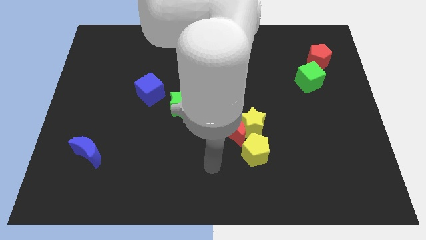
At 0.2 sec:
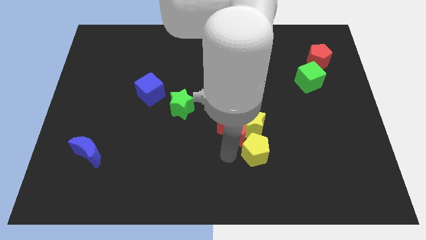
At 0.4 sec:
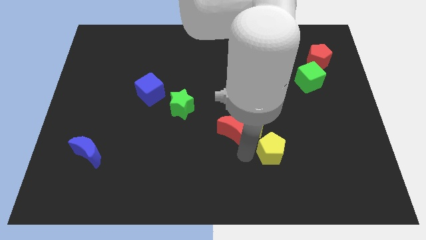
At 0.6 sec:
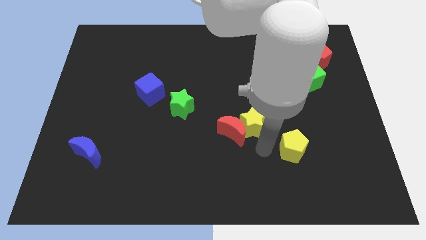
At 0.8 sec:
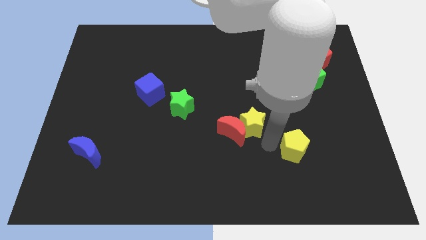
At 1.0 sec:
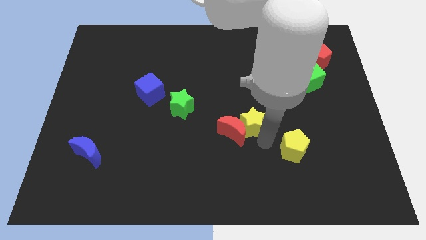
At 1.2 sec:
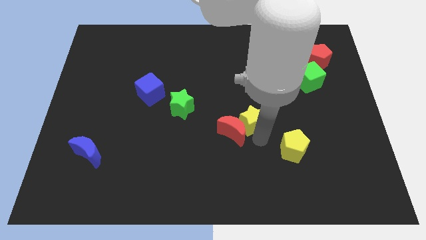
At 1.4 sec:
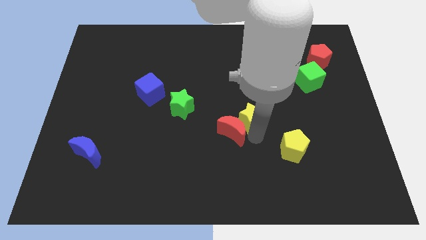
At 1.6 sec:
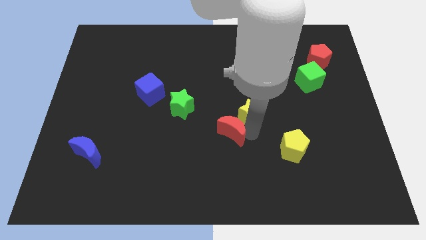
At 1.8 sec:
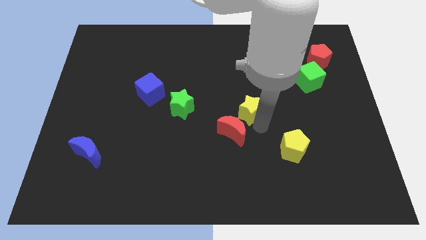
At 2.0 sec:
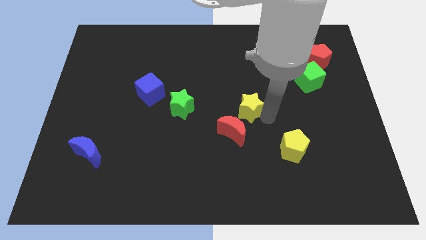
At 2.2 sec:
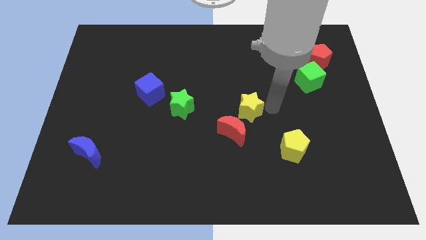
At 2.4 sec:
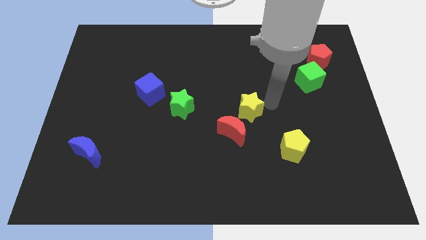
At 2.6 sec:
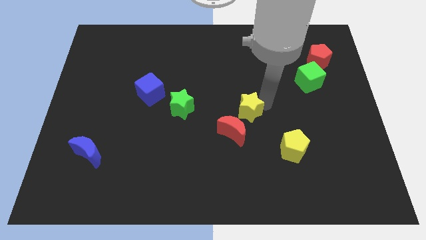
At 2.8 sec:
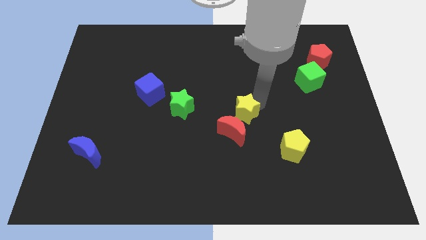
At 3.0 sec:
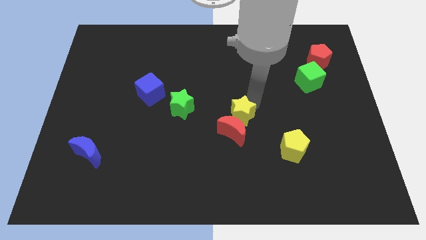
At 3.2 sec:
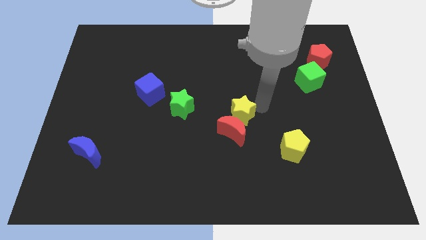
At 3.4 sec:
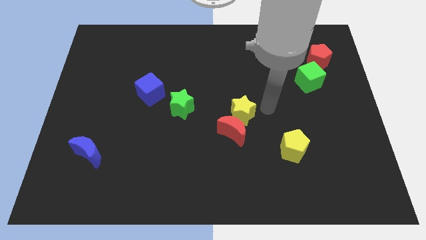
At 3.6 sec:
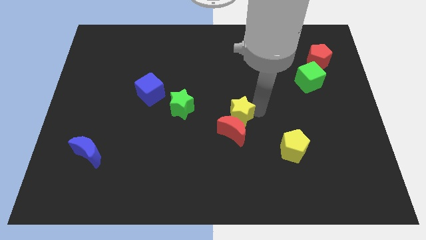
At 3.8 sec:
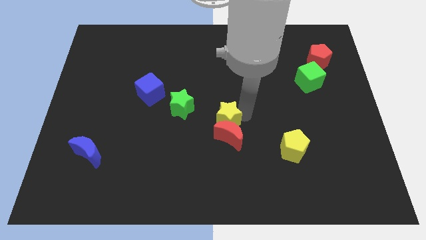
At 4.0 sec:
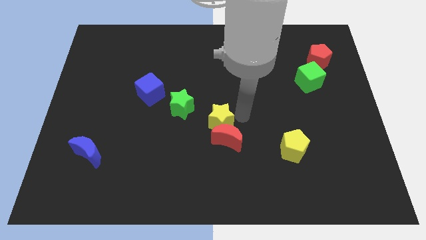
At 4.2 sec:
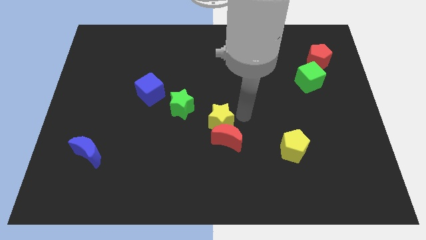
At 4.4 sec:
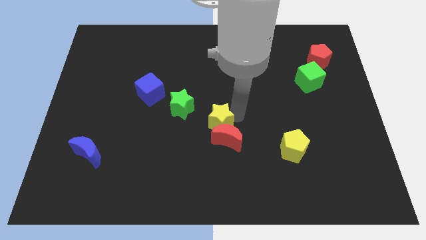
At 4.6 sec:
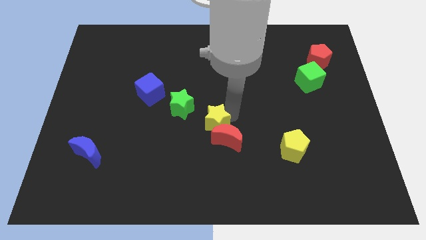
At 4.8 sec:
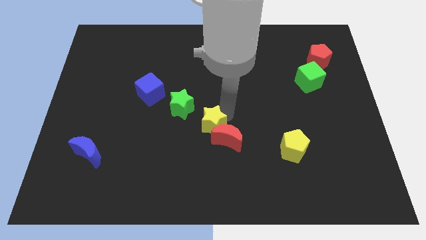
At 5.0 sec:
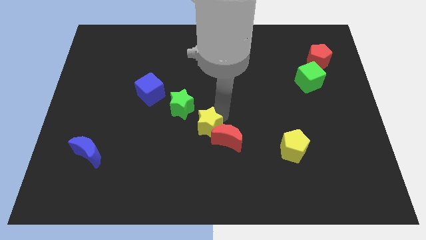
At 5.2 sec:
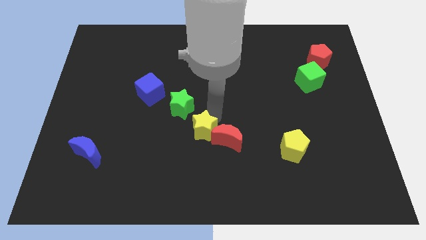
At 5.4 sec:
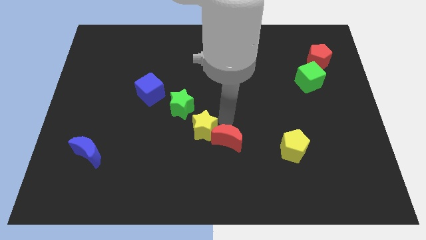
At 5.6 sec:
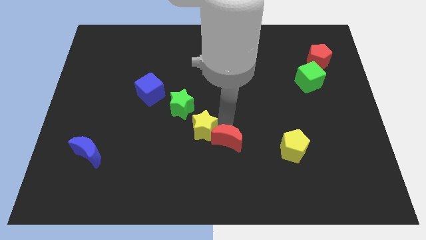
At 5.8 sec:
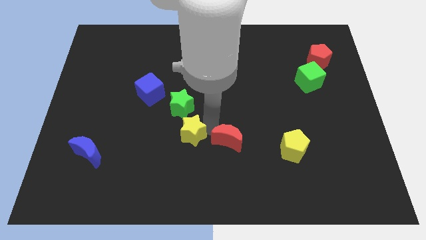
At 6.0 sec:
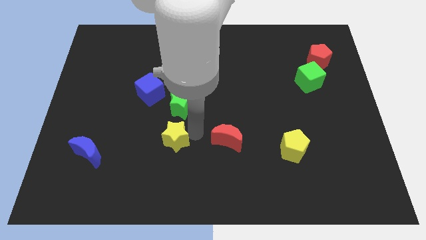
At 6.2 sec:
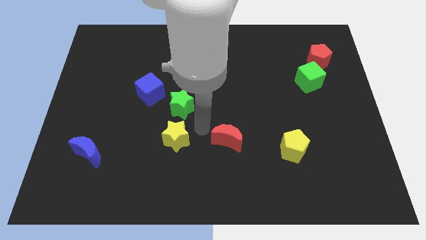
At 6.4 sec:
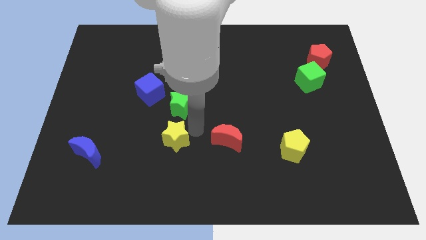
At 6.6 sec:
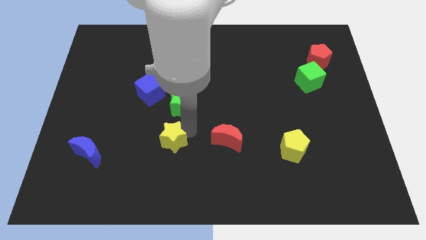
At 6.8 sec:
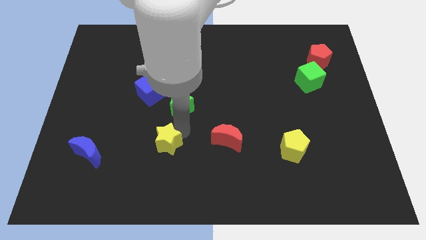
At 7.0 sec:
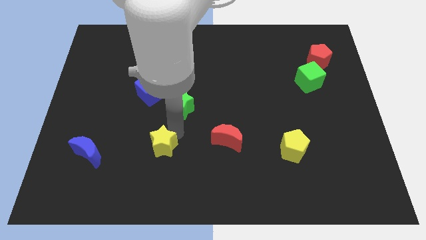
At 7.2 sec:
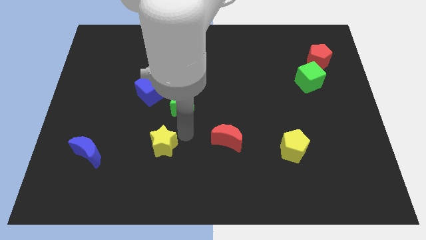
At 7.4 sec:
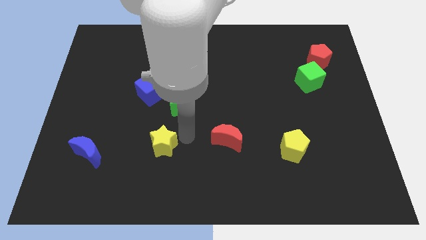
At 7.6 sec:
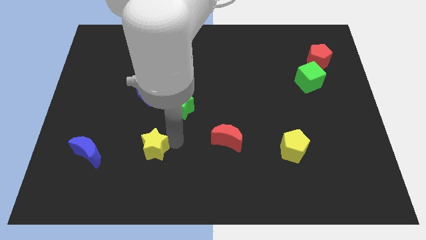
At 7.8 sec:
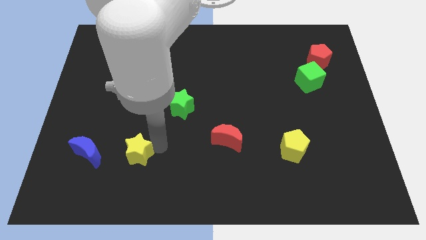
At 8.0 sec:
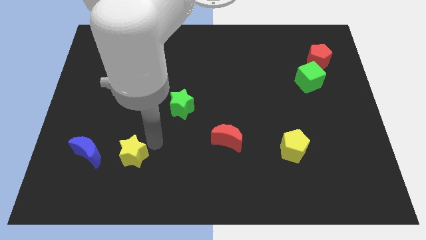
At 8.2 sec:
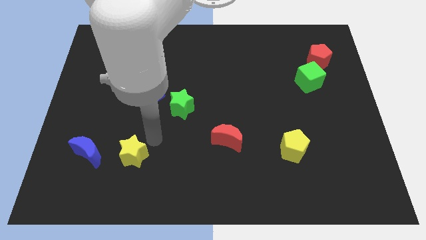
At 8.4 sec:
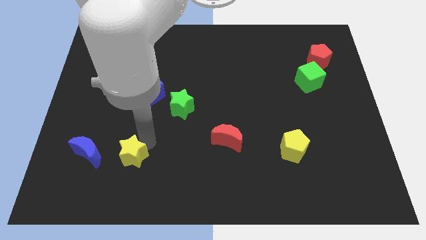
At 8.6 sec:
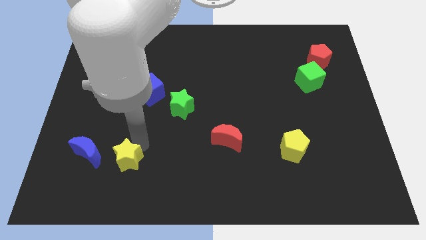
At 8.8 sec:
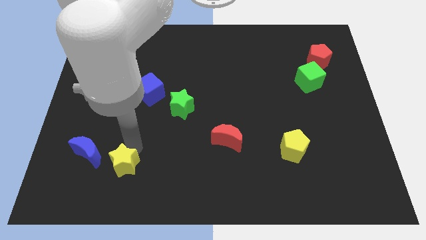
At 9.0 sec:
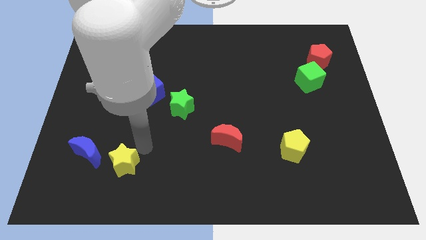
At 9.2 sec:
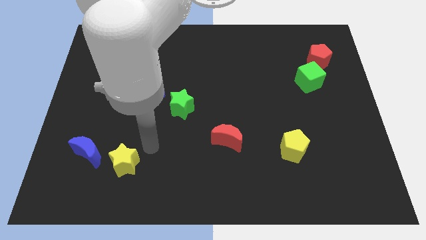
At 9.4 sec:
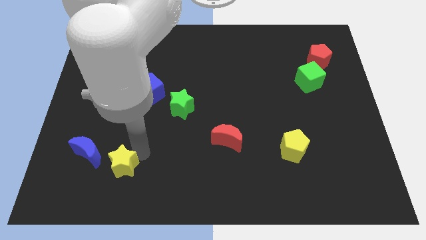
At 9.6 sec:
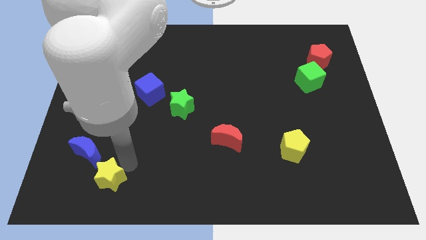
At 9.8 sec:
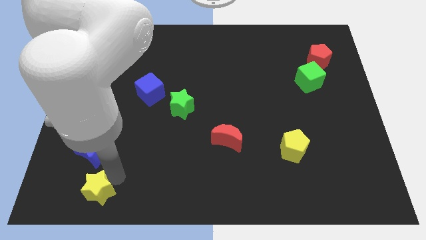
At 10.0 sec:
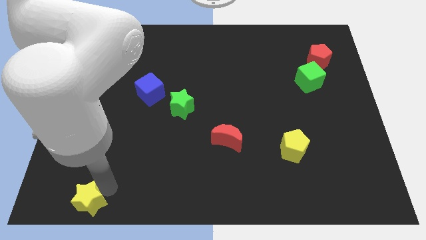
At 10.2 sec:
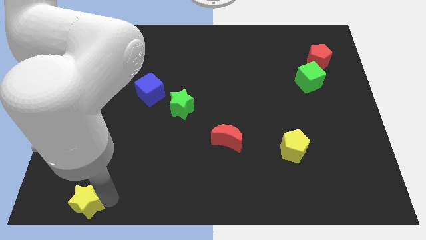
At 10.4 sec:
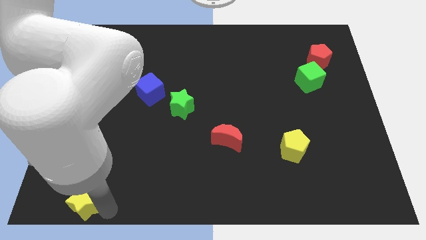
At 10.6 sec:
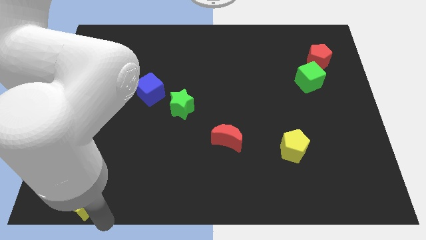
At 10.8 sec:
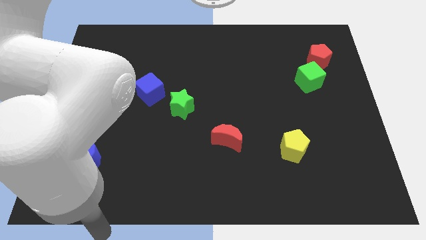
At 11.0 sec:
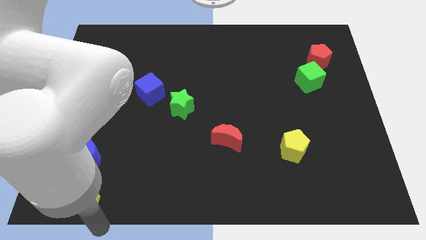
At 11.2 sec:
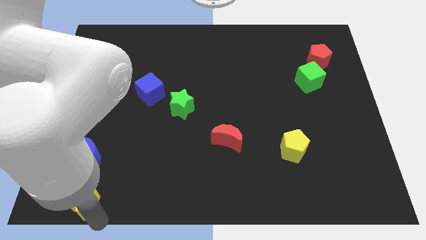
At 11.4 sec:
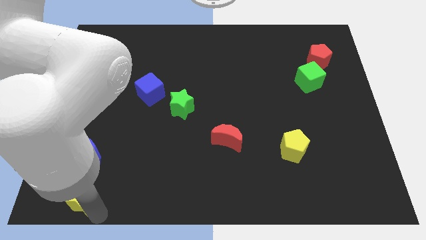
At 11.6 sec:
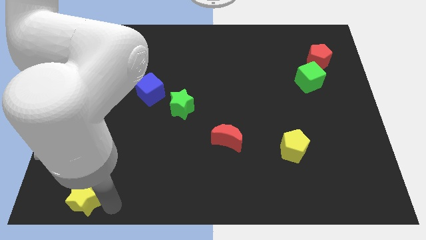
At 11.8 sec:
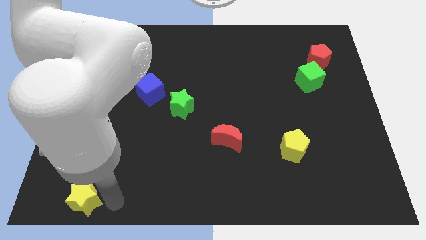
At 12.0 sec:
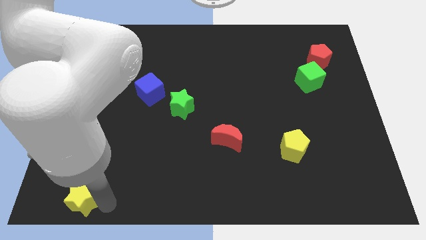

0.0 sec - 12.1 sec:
move the yellow star to the bottom left corner

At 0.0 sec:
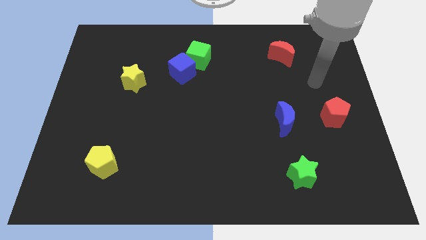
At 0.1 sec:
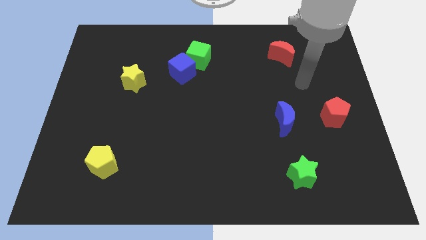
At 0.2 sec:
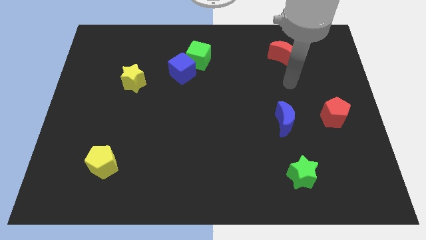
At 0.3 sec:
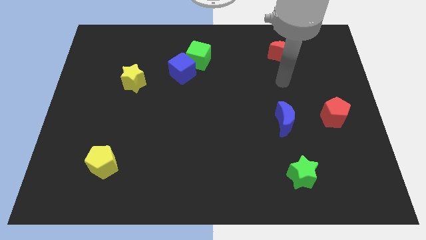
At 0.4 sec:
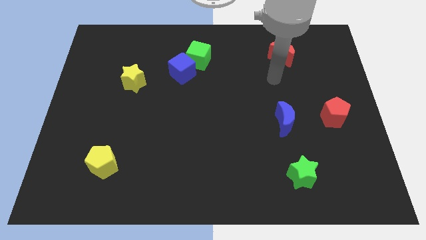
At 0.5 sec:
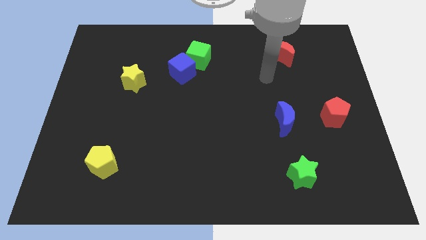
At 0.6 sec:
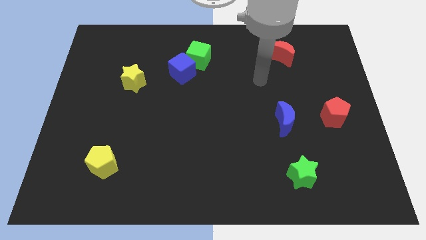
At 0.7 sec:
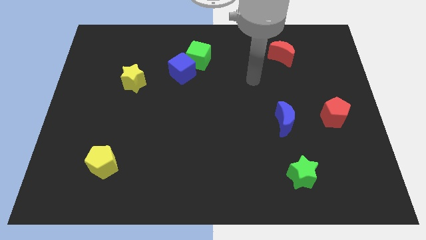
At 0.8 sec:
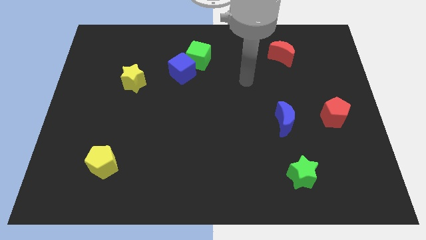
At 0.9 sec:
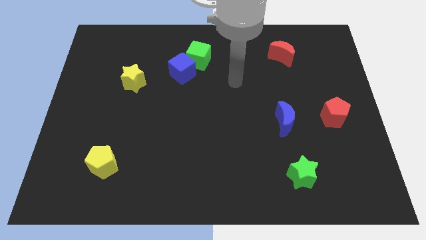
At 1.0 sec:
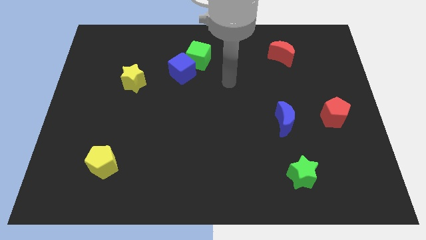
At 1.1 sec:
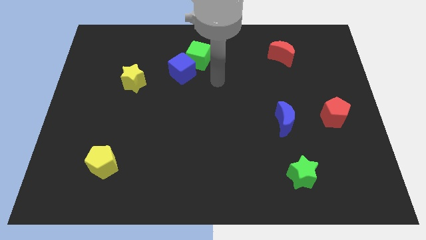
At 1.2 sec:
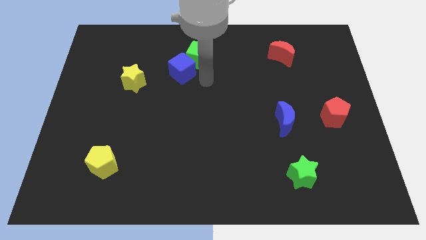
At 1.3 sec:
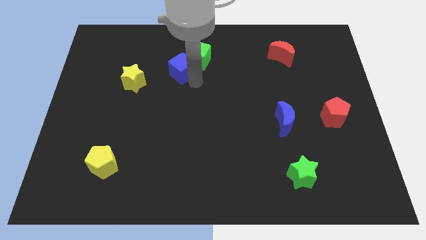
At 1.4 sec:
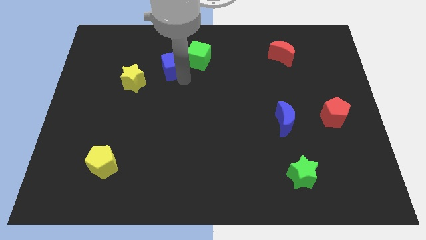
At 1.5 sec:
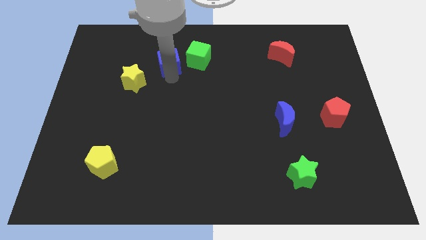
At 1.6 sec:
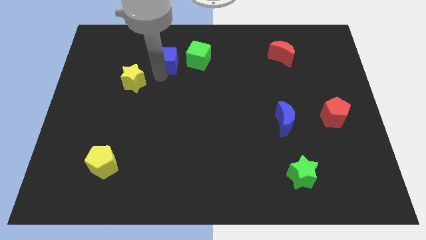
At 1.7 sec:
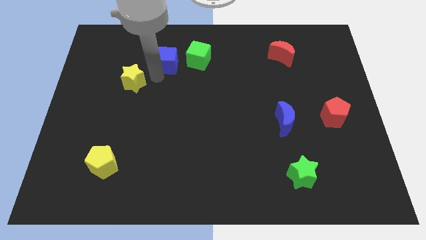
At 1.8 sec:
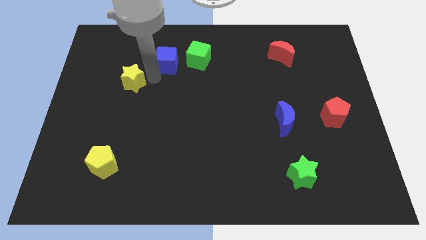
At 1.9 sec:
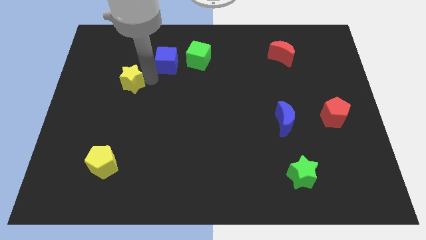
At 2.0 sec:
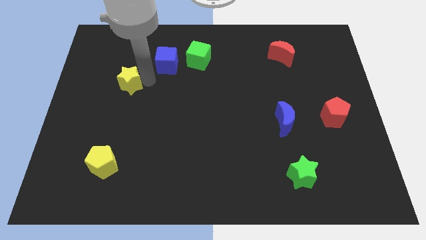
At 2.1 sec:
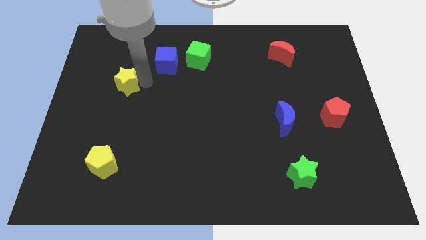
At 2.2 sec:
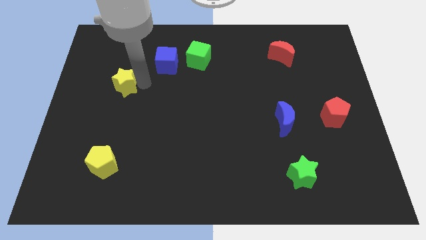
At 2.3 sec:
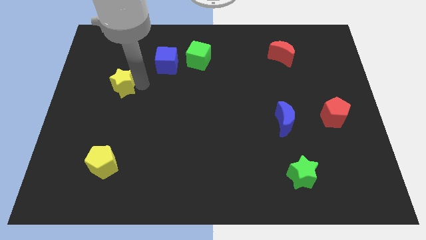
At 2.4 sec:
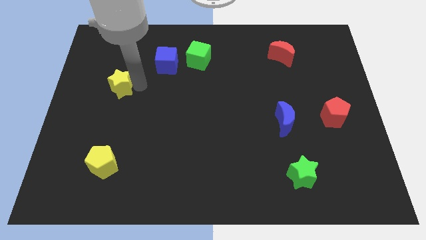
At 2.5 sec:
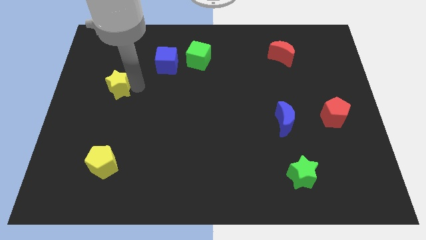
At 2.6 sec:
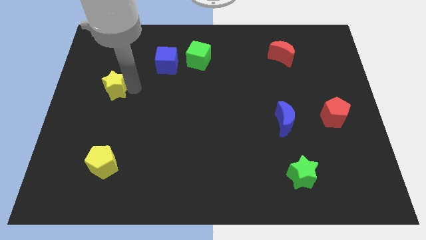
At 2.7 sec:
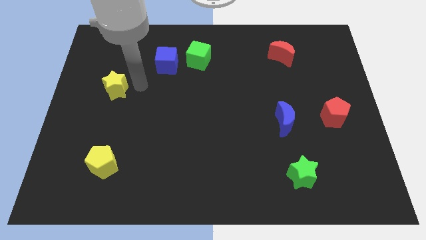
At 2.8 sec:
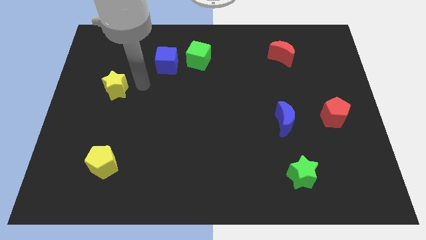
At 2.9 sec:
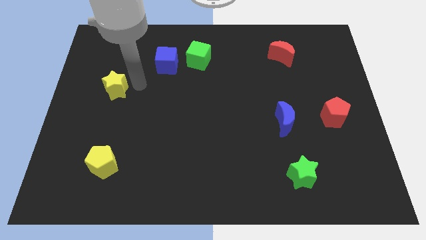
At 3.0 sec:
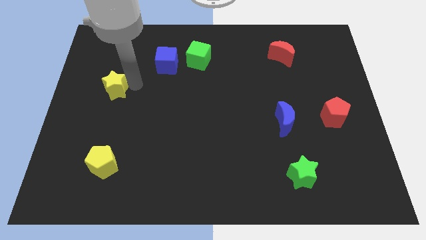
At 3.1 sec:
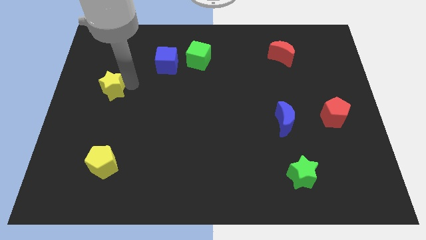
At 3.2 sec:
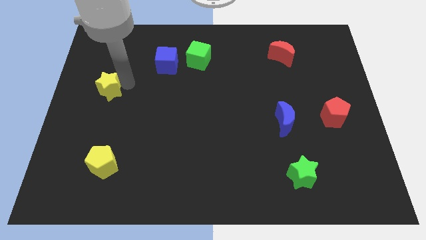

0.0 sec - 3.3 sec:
push the yellow star to the left side of the board
